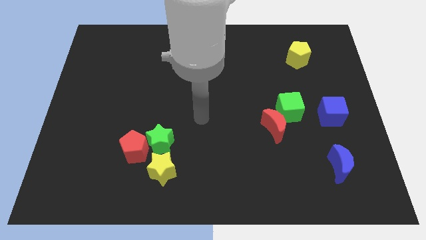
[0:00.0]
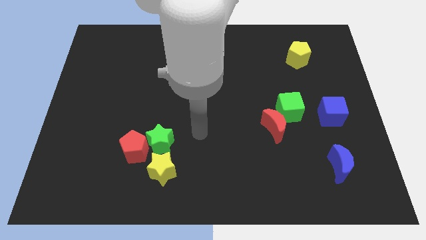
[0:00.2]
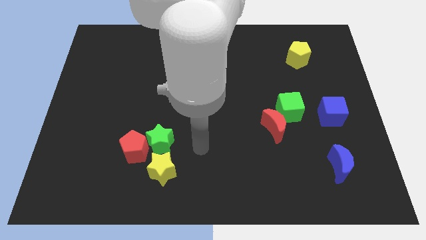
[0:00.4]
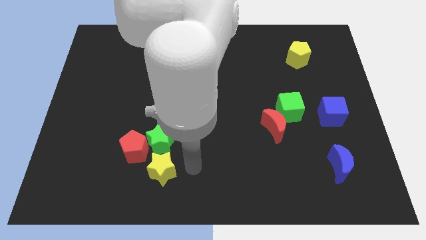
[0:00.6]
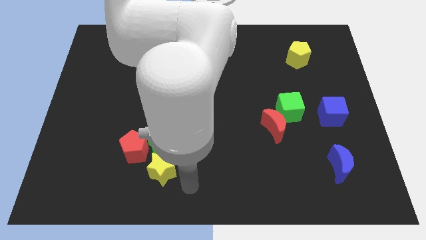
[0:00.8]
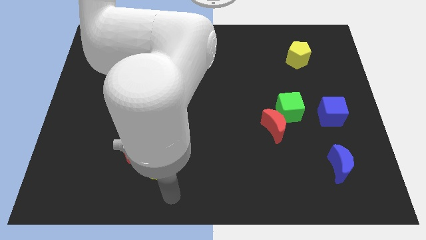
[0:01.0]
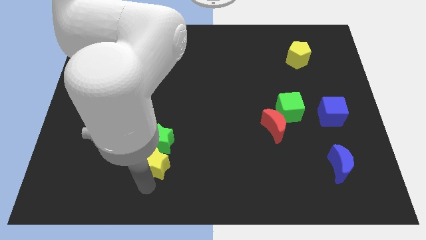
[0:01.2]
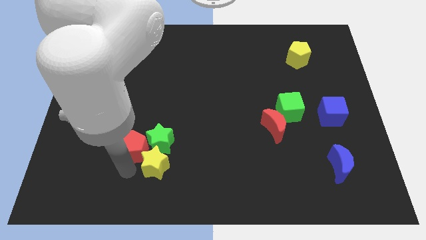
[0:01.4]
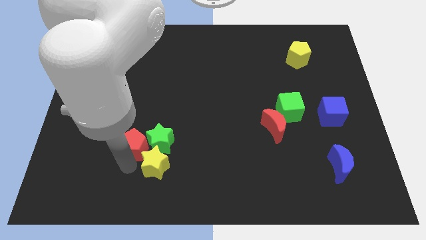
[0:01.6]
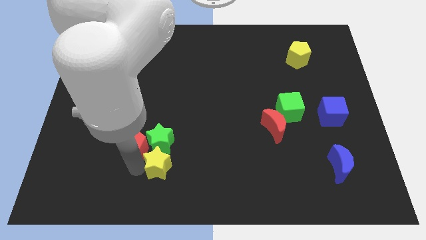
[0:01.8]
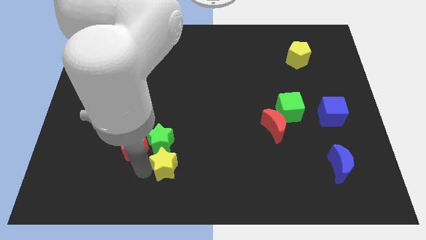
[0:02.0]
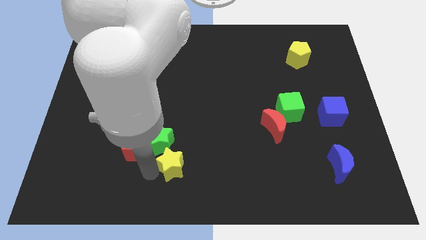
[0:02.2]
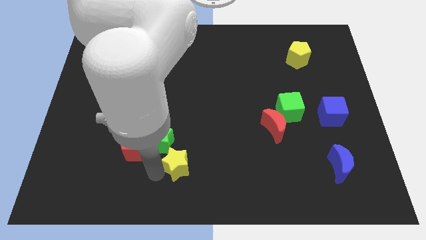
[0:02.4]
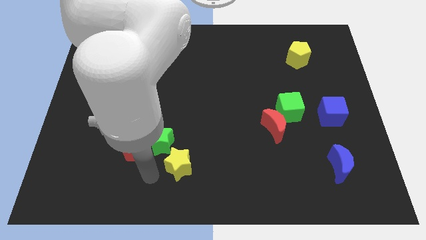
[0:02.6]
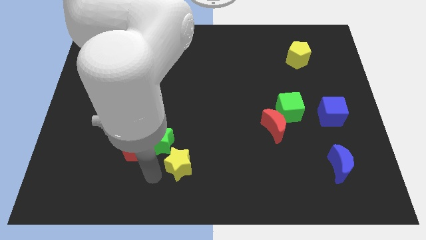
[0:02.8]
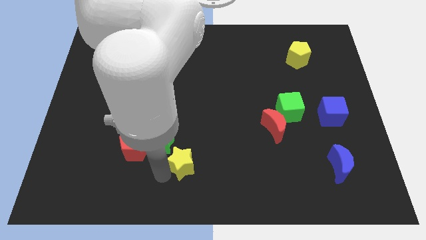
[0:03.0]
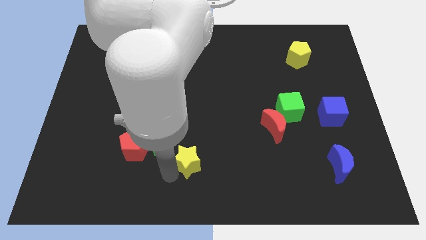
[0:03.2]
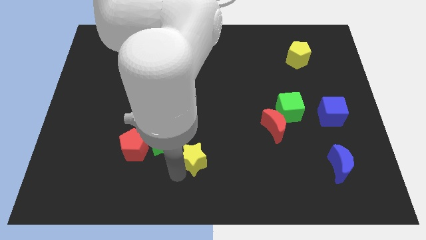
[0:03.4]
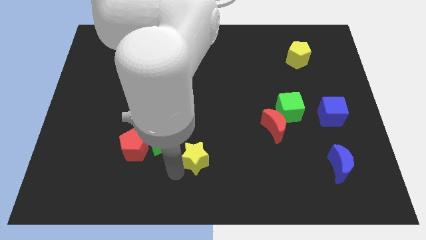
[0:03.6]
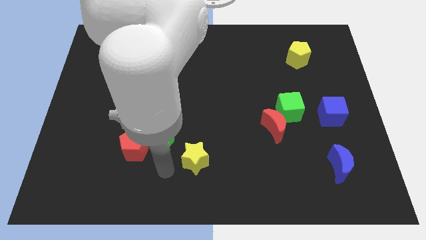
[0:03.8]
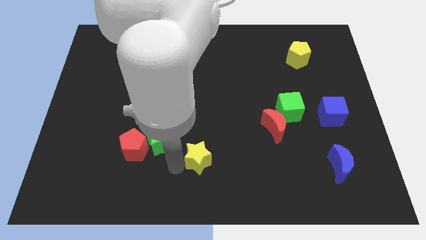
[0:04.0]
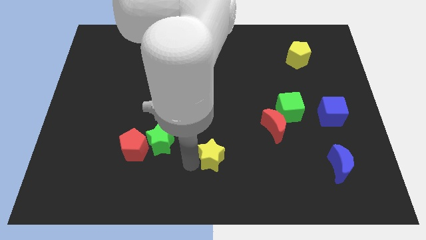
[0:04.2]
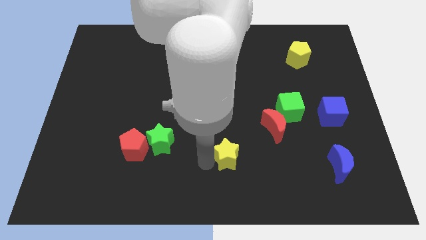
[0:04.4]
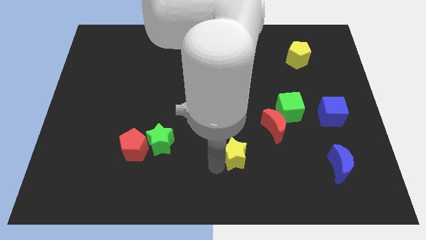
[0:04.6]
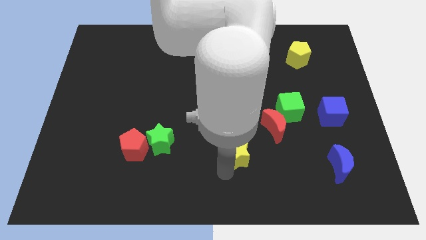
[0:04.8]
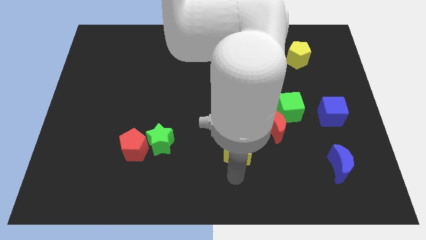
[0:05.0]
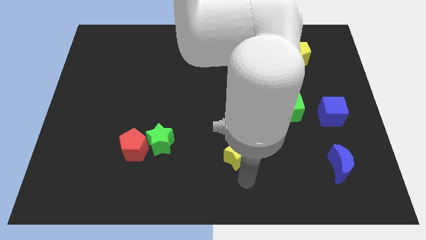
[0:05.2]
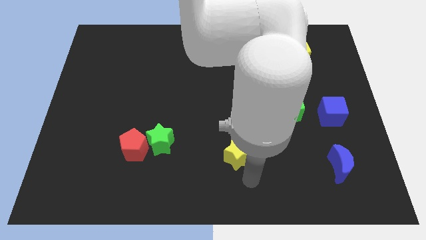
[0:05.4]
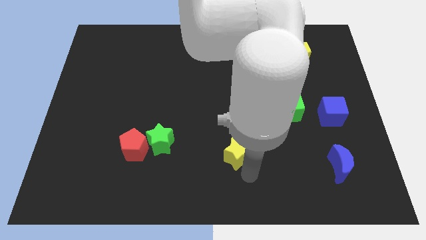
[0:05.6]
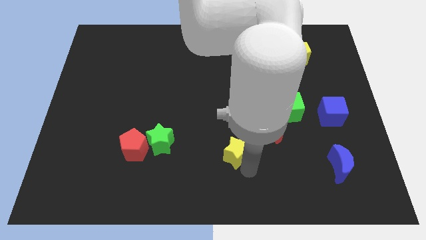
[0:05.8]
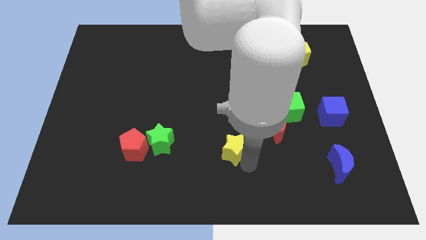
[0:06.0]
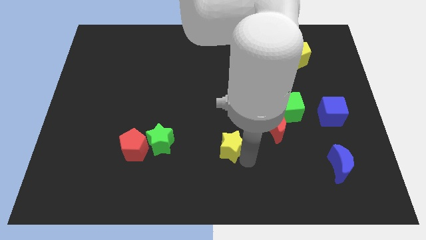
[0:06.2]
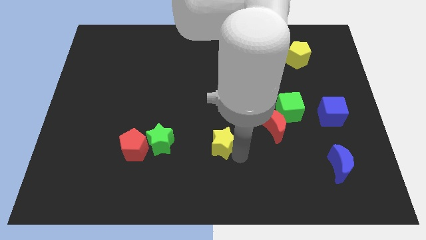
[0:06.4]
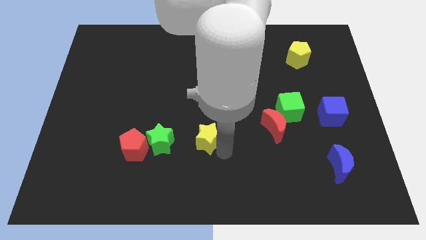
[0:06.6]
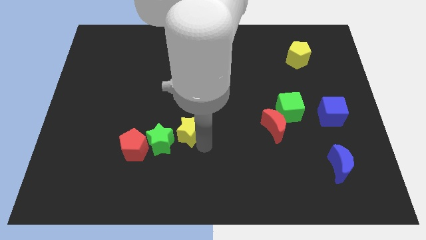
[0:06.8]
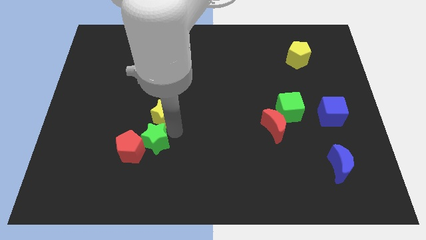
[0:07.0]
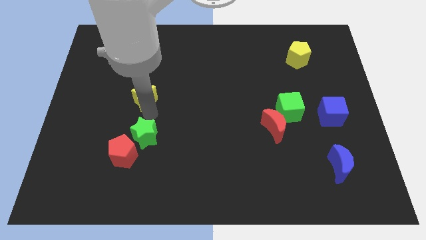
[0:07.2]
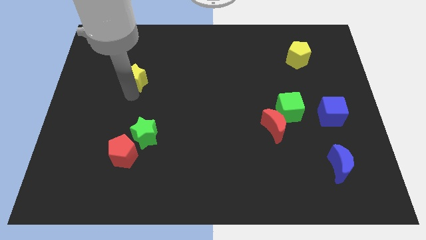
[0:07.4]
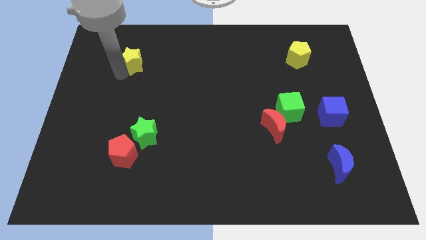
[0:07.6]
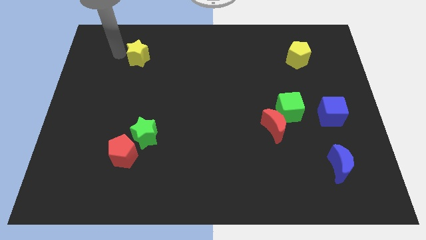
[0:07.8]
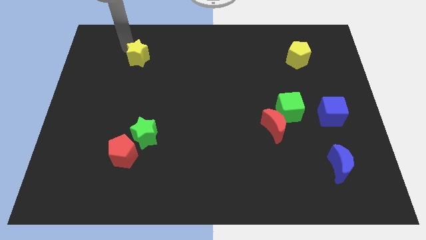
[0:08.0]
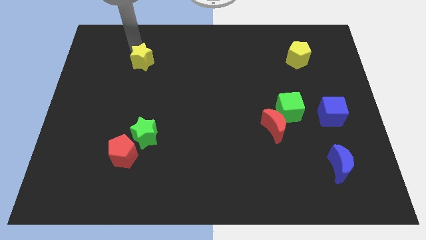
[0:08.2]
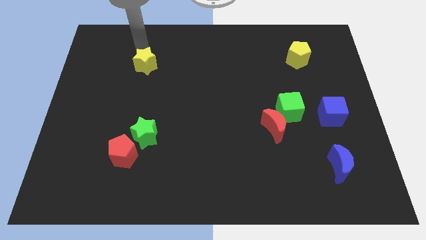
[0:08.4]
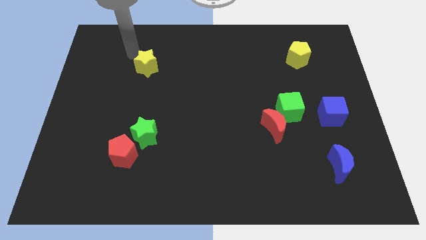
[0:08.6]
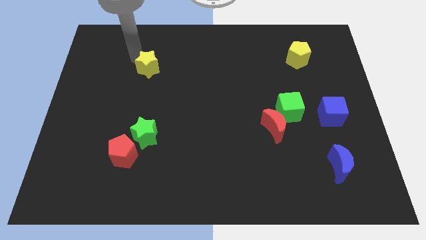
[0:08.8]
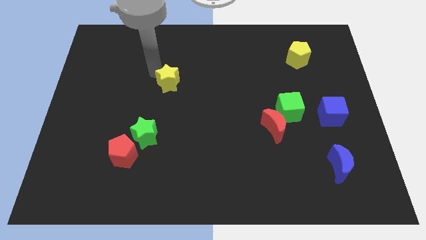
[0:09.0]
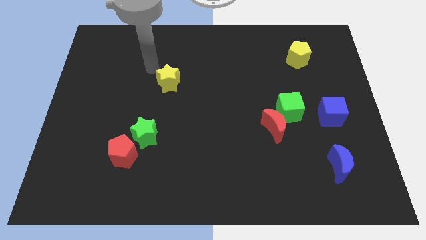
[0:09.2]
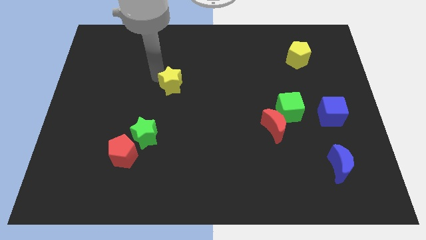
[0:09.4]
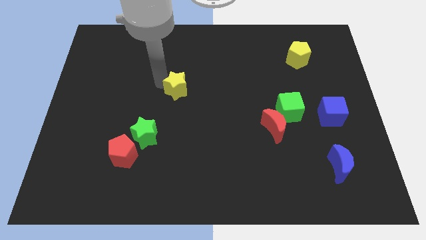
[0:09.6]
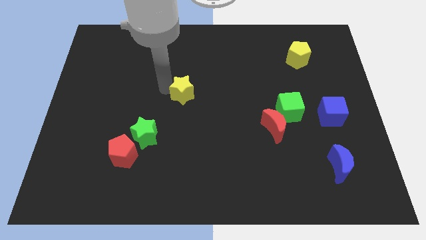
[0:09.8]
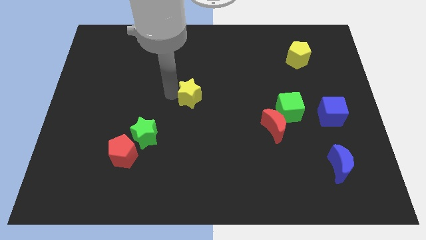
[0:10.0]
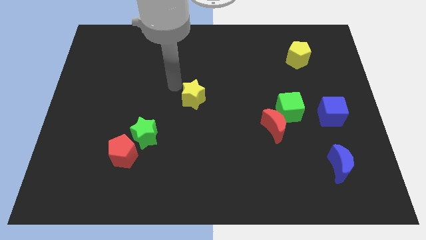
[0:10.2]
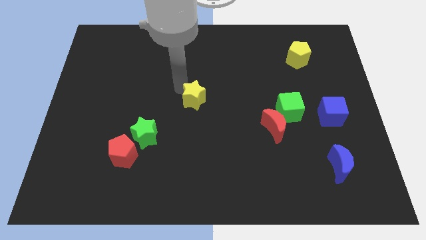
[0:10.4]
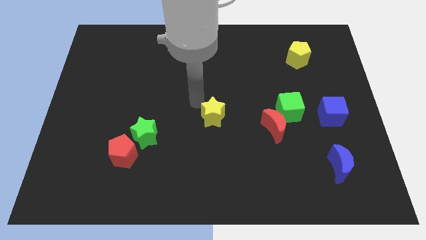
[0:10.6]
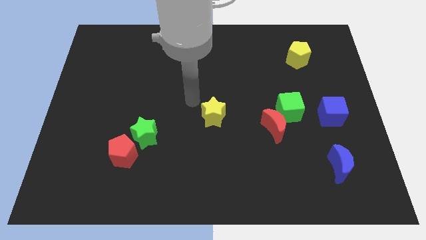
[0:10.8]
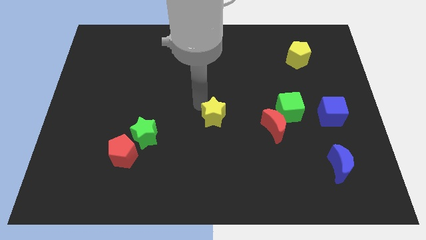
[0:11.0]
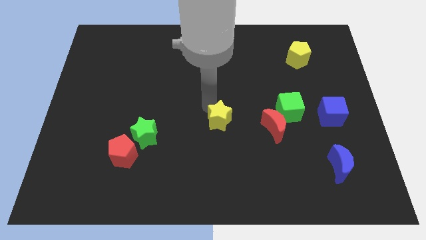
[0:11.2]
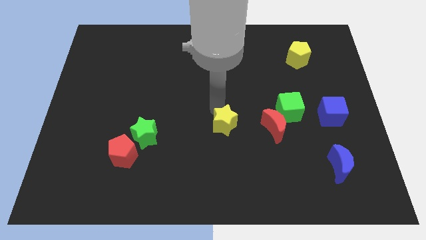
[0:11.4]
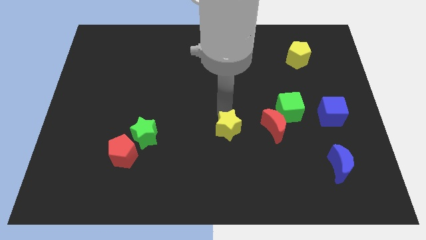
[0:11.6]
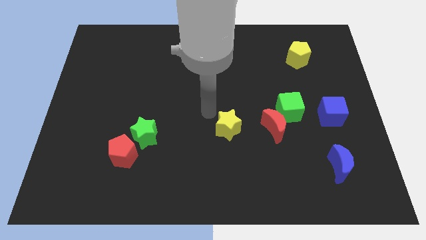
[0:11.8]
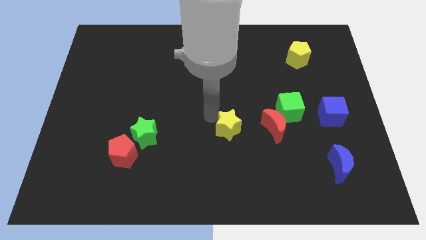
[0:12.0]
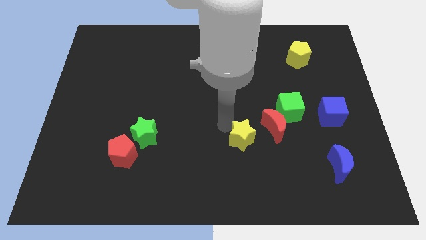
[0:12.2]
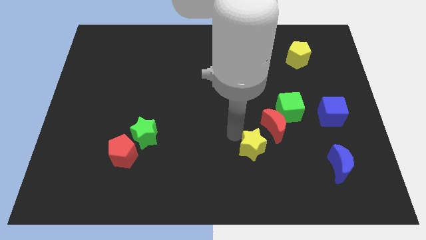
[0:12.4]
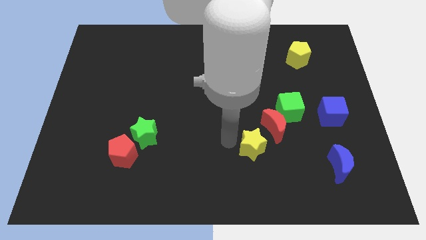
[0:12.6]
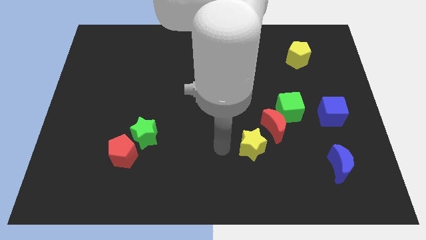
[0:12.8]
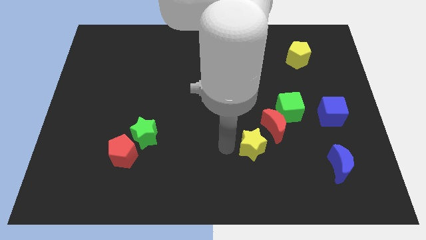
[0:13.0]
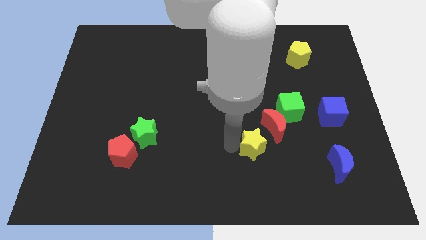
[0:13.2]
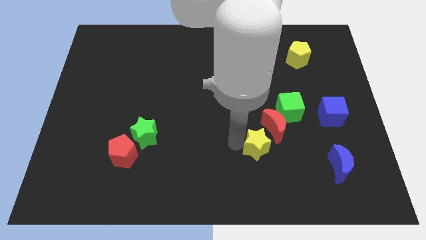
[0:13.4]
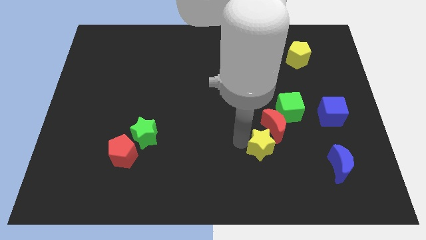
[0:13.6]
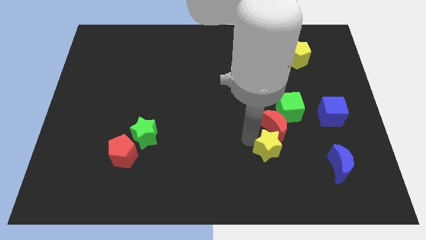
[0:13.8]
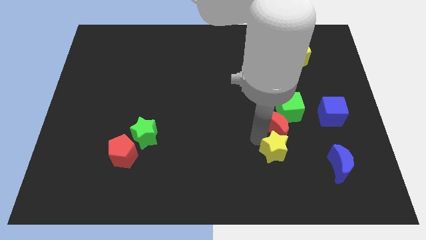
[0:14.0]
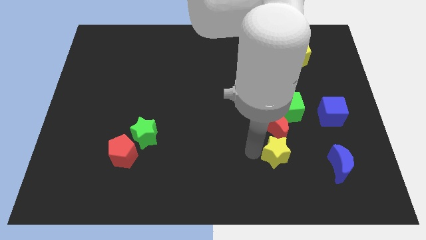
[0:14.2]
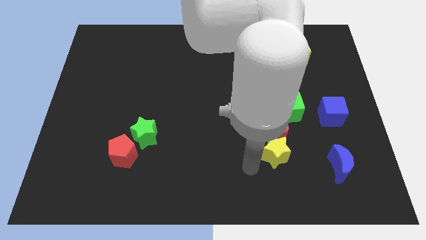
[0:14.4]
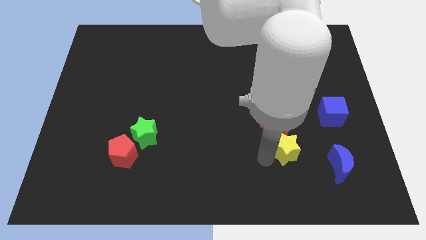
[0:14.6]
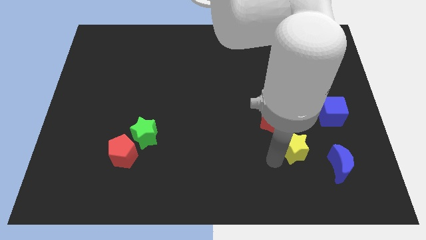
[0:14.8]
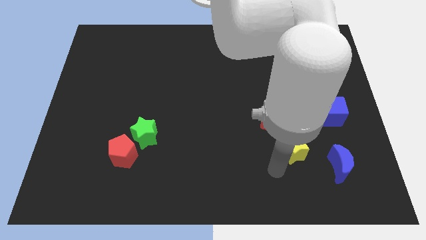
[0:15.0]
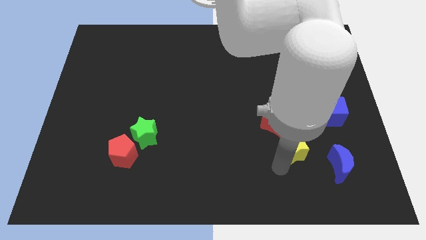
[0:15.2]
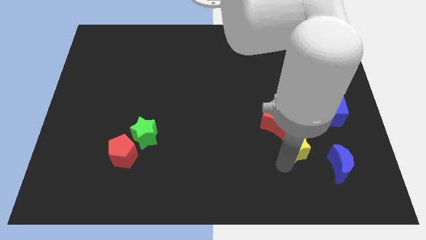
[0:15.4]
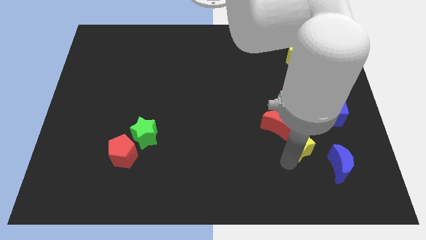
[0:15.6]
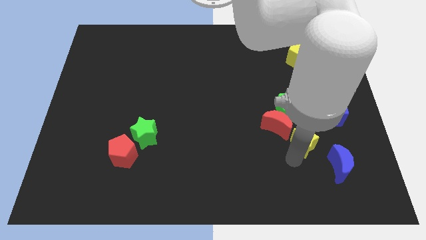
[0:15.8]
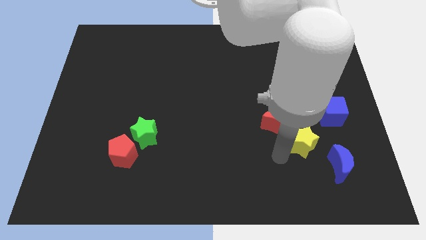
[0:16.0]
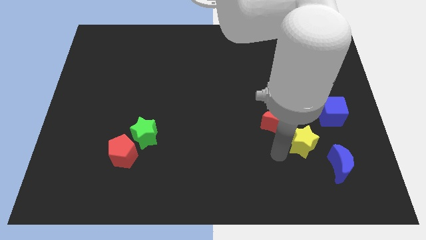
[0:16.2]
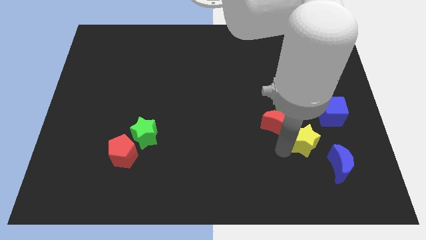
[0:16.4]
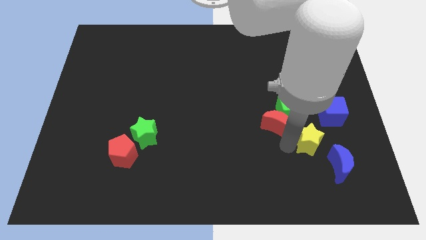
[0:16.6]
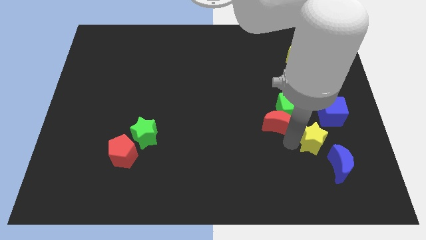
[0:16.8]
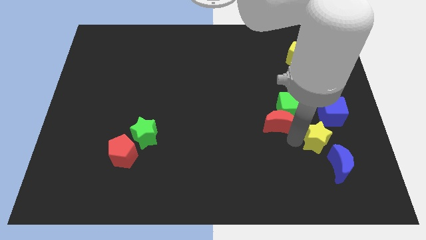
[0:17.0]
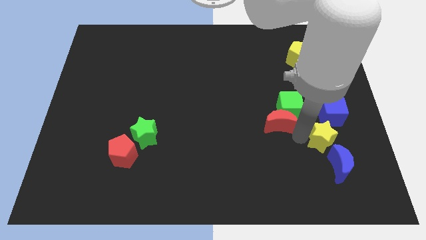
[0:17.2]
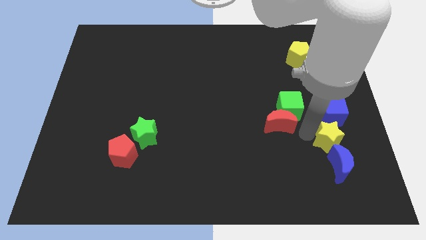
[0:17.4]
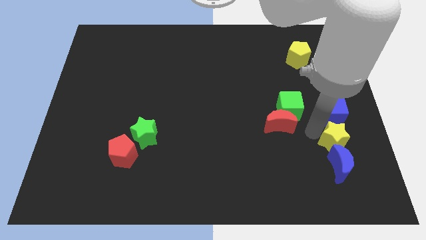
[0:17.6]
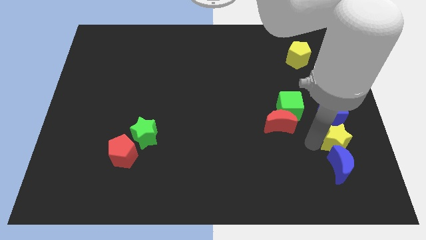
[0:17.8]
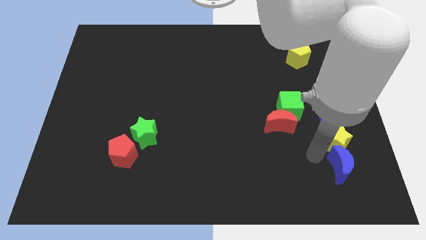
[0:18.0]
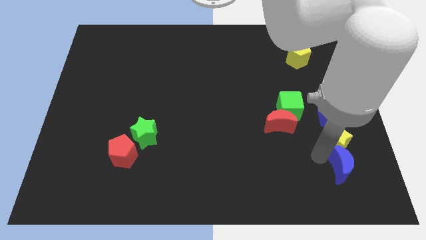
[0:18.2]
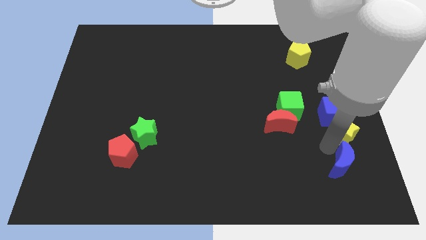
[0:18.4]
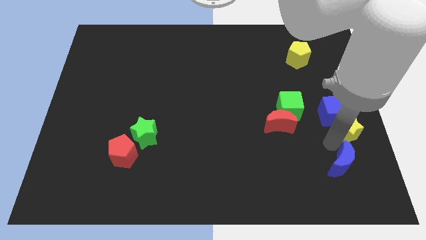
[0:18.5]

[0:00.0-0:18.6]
push the yellow star to the right side
